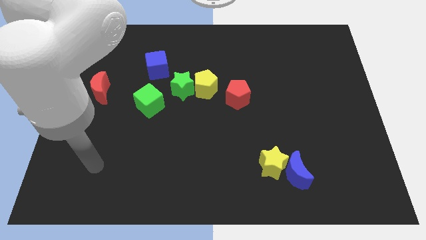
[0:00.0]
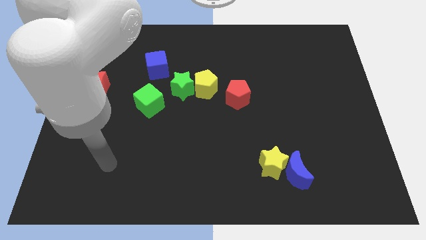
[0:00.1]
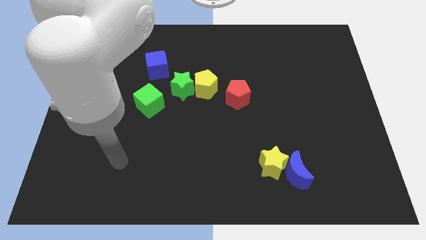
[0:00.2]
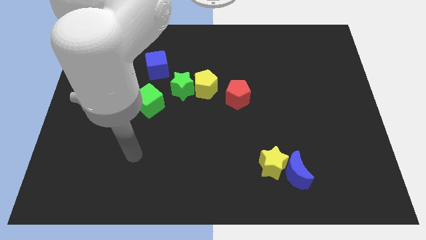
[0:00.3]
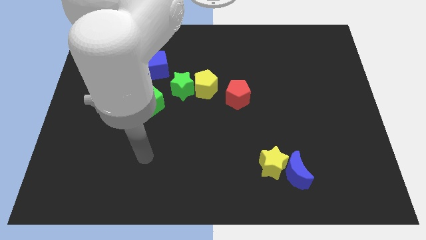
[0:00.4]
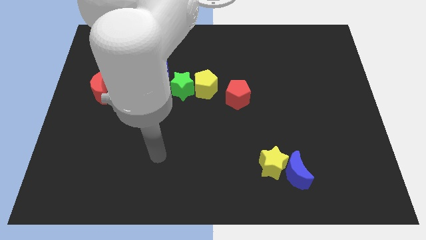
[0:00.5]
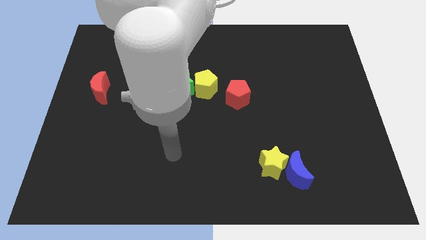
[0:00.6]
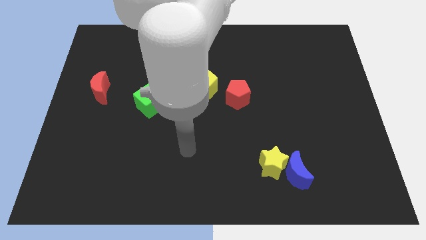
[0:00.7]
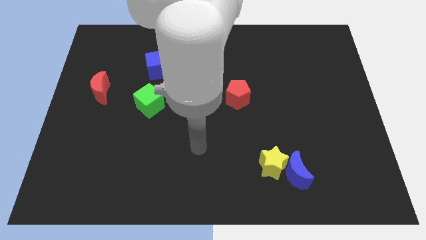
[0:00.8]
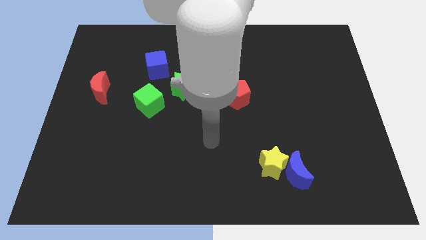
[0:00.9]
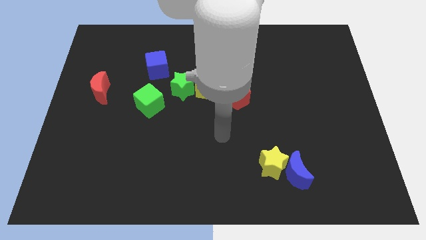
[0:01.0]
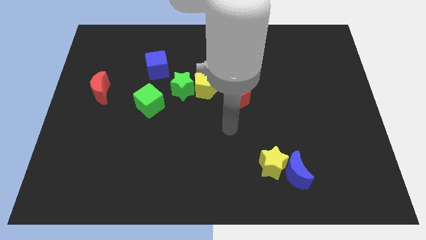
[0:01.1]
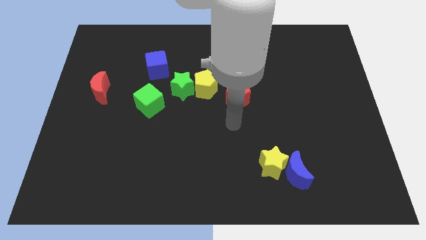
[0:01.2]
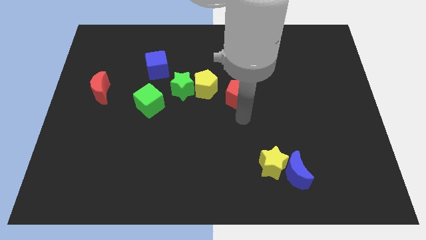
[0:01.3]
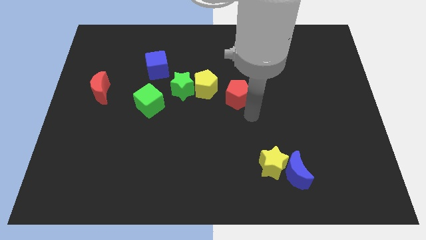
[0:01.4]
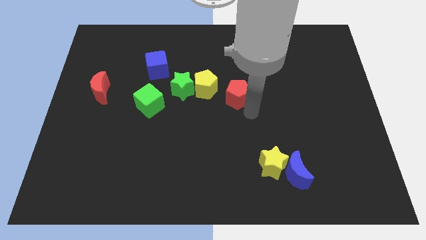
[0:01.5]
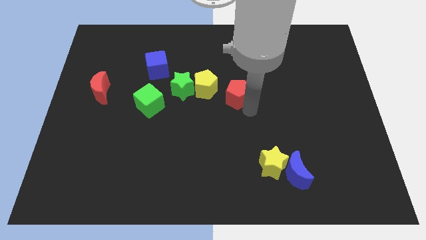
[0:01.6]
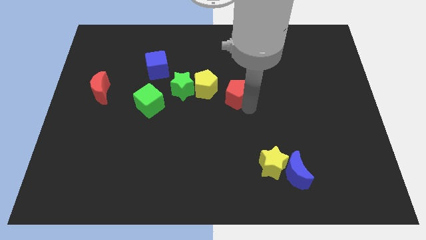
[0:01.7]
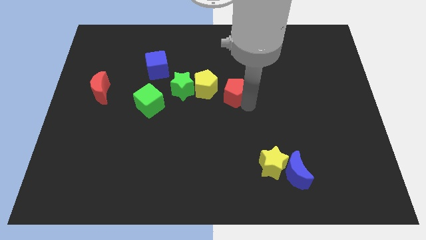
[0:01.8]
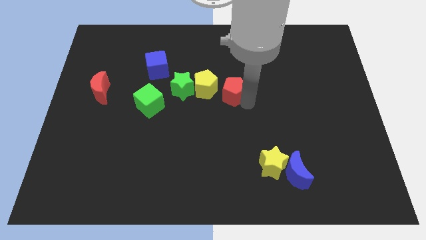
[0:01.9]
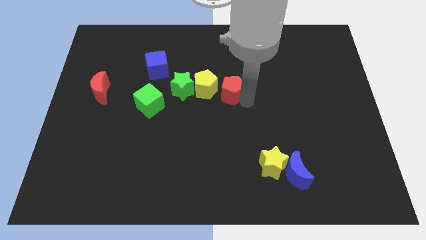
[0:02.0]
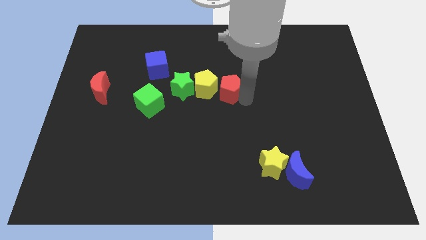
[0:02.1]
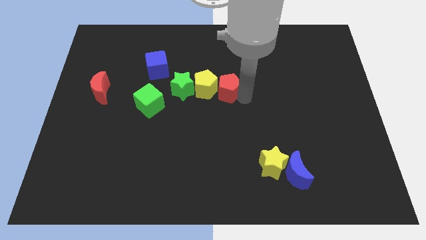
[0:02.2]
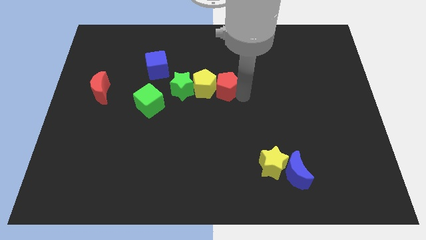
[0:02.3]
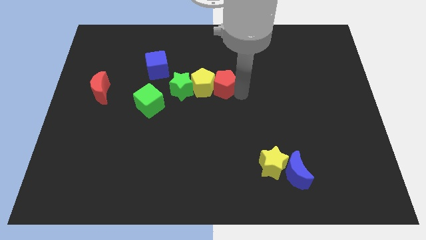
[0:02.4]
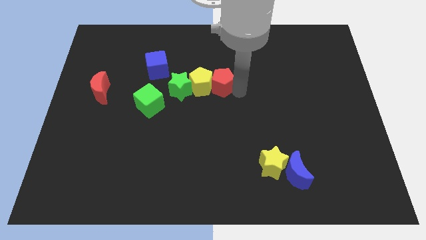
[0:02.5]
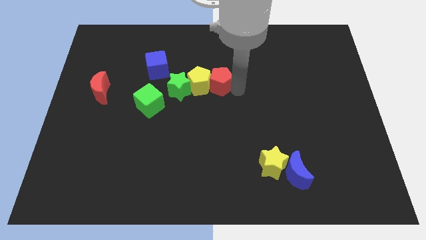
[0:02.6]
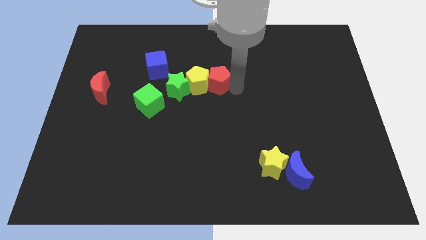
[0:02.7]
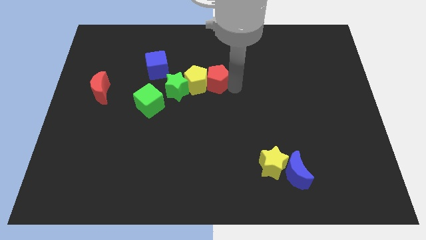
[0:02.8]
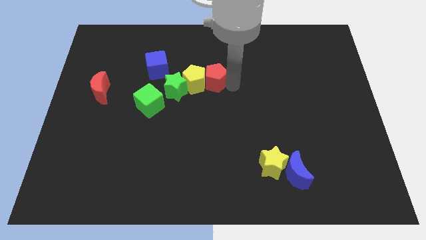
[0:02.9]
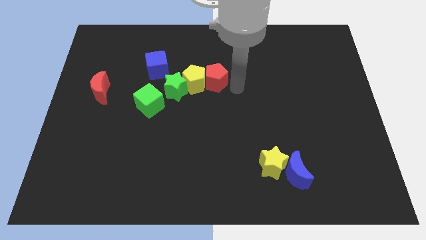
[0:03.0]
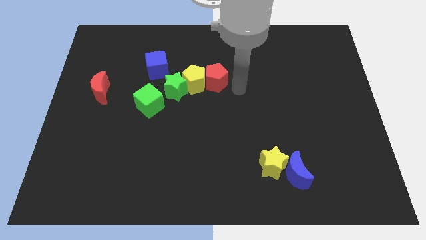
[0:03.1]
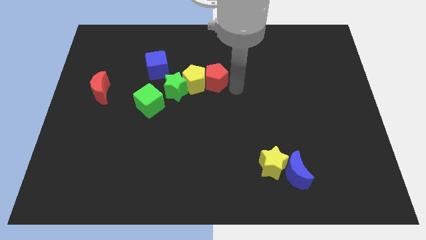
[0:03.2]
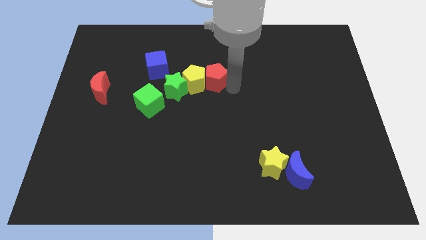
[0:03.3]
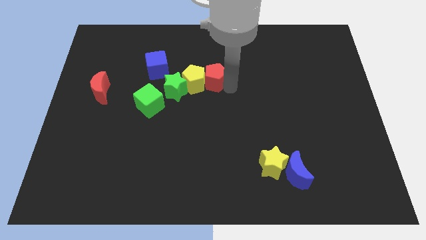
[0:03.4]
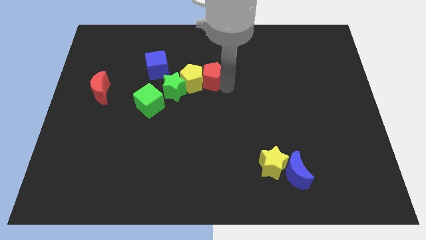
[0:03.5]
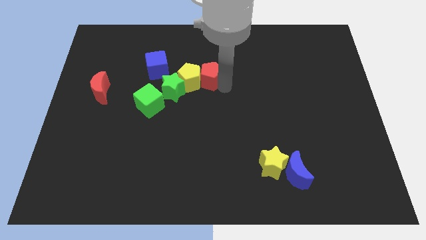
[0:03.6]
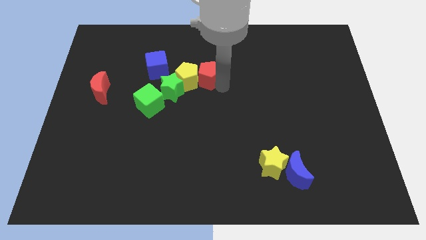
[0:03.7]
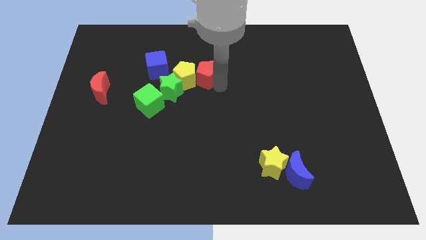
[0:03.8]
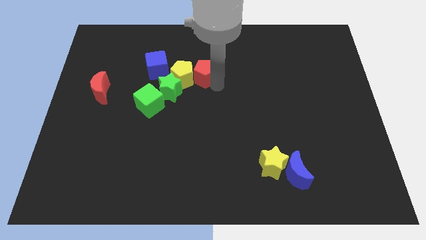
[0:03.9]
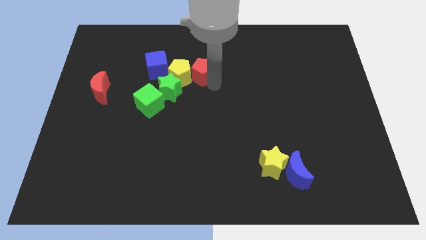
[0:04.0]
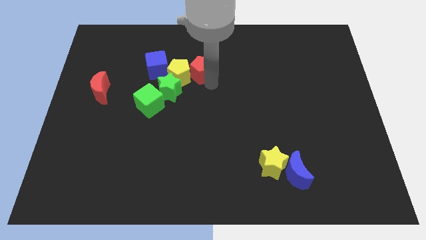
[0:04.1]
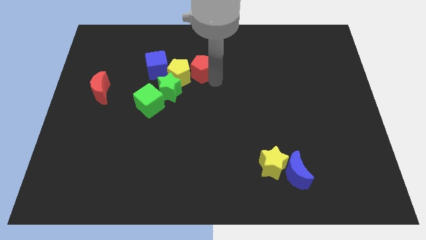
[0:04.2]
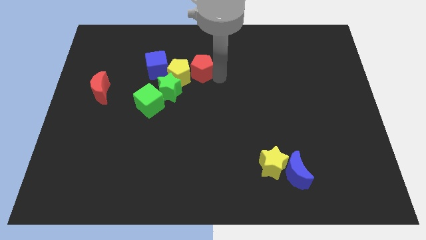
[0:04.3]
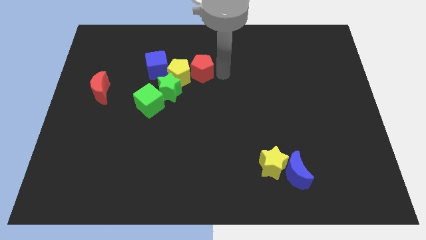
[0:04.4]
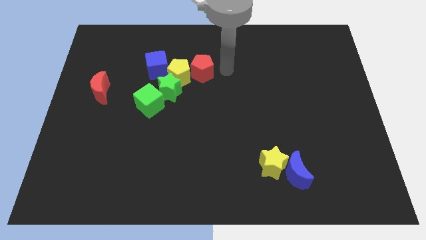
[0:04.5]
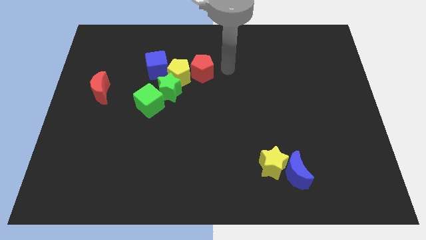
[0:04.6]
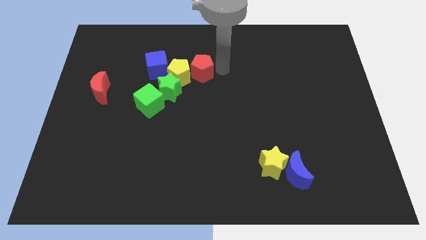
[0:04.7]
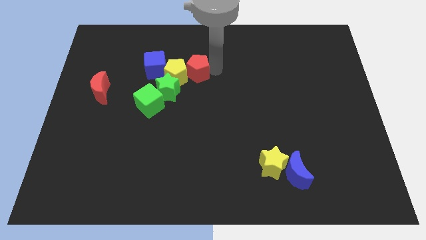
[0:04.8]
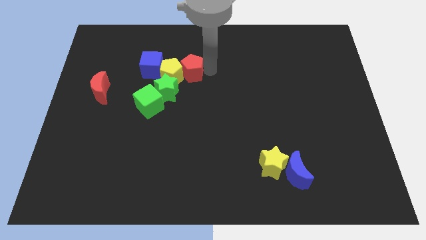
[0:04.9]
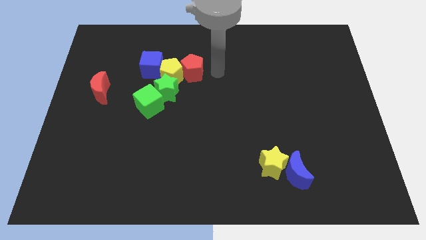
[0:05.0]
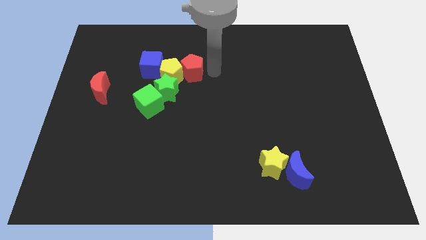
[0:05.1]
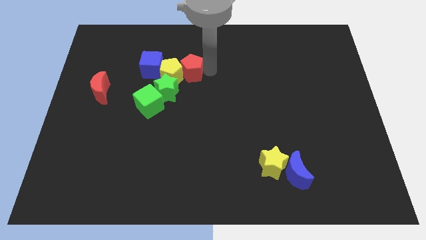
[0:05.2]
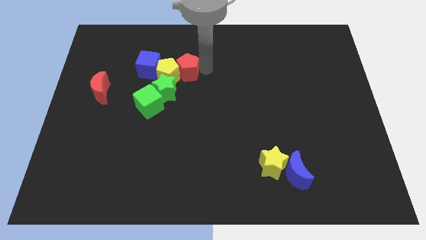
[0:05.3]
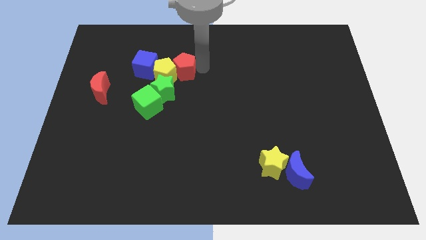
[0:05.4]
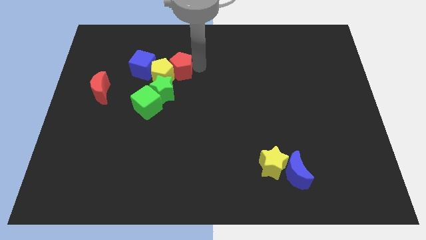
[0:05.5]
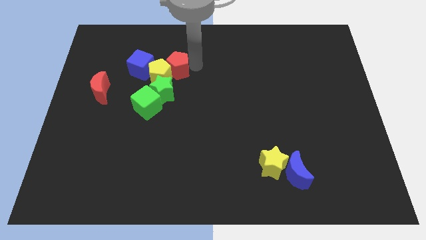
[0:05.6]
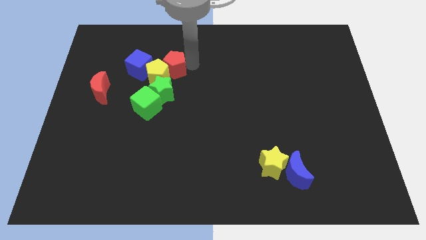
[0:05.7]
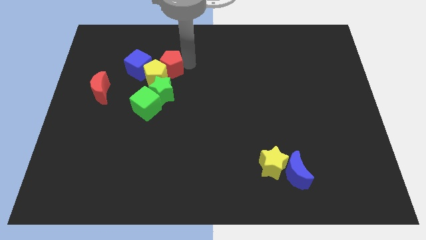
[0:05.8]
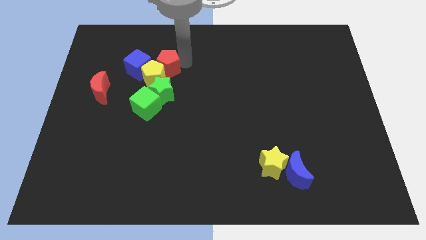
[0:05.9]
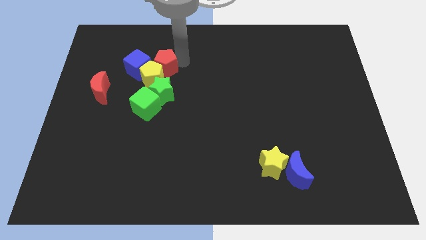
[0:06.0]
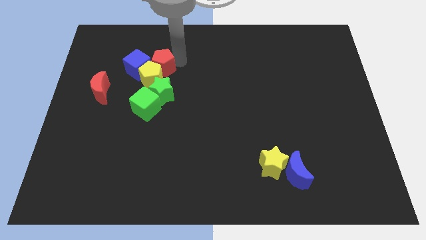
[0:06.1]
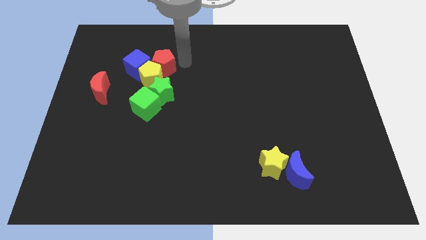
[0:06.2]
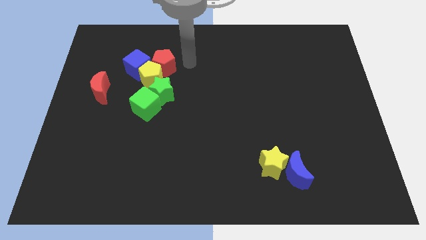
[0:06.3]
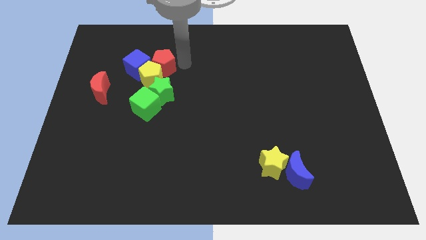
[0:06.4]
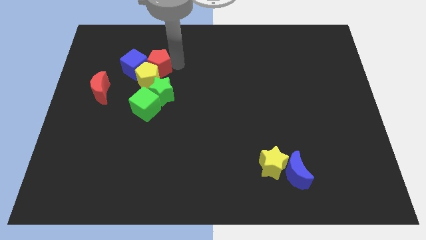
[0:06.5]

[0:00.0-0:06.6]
put the red pentagon to the blue cube

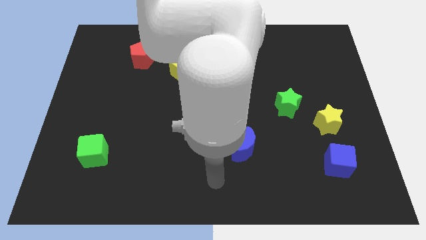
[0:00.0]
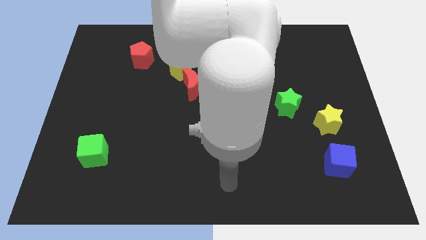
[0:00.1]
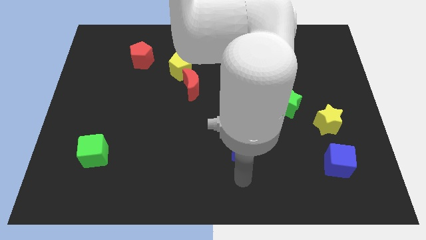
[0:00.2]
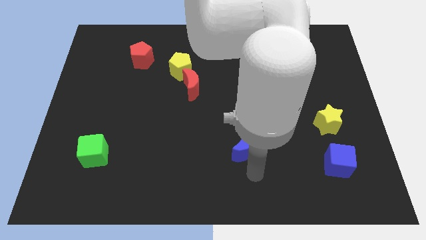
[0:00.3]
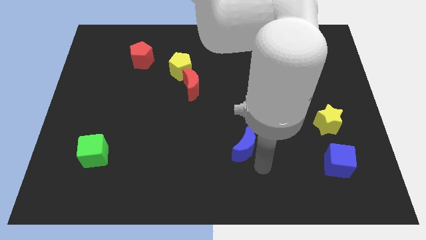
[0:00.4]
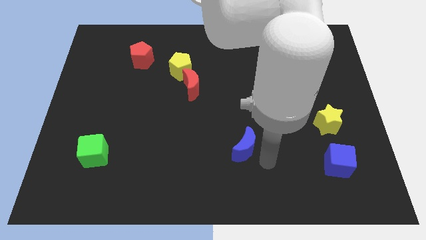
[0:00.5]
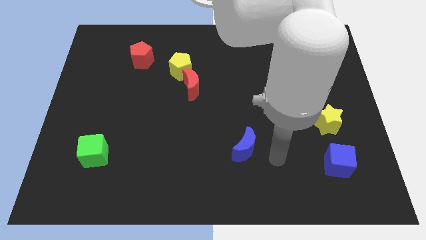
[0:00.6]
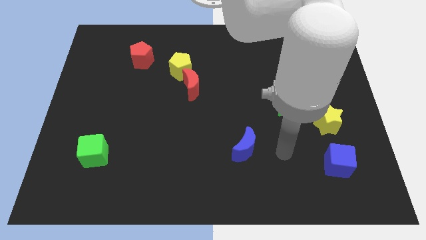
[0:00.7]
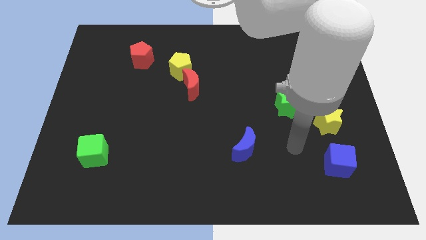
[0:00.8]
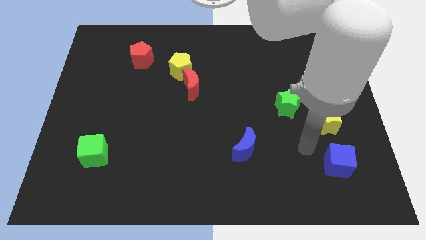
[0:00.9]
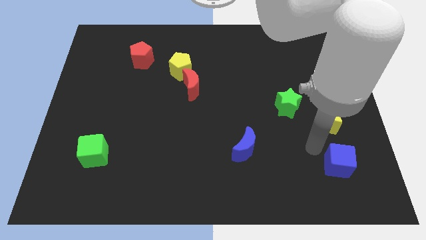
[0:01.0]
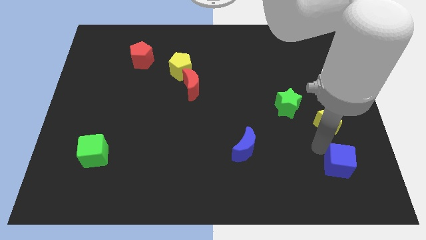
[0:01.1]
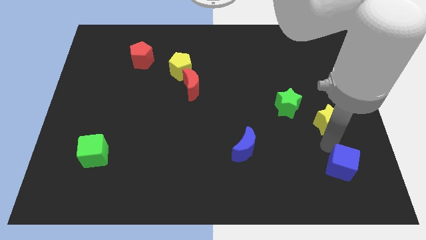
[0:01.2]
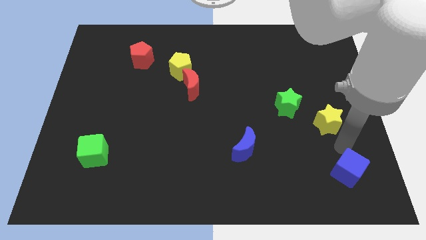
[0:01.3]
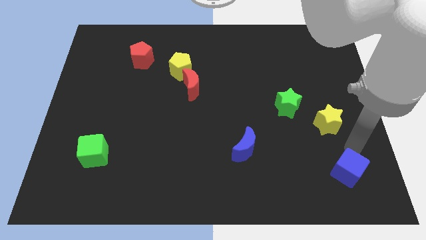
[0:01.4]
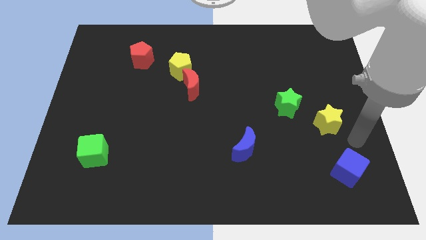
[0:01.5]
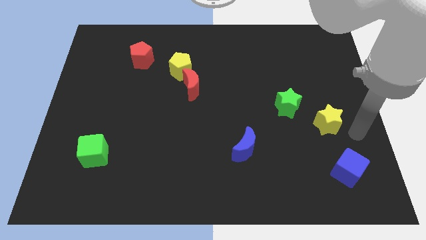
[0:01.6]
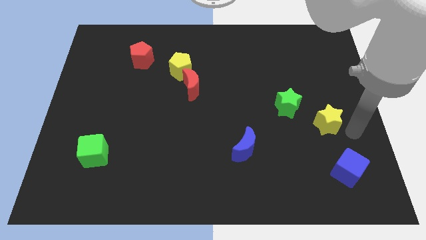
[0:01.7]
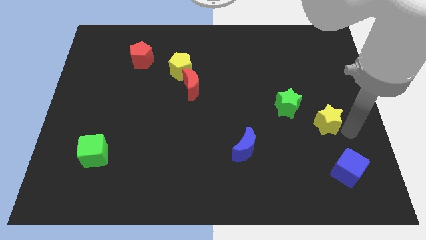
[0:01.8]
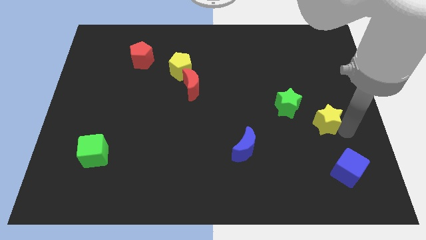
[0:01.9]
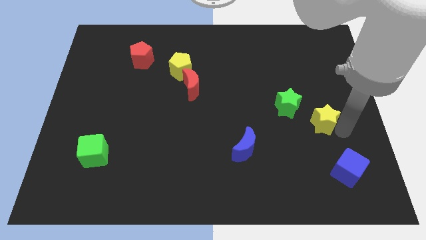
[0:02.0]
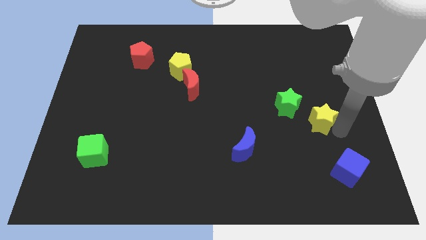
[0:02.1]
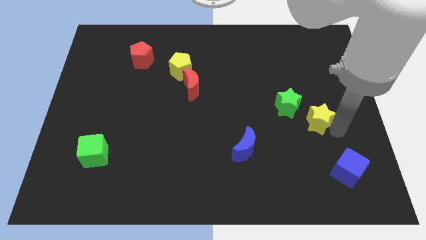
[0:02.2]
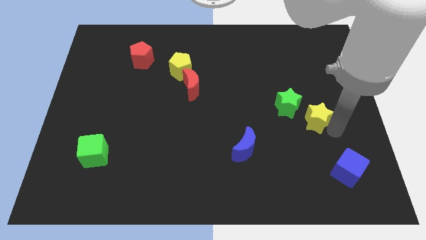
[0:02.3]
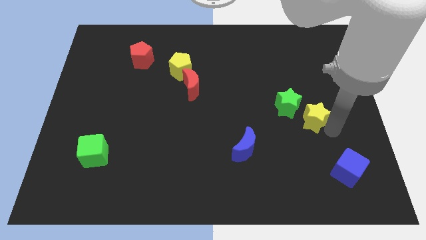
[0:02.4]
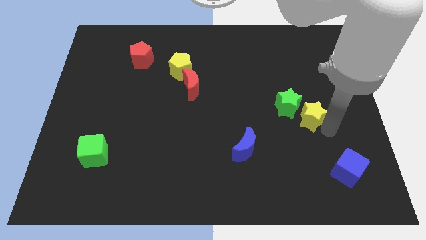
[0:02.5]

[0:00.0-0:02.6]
put the yellow star next to the green star
